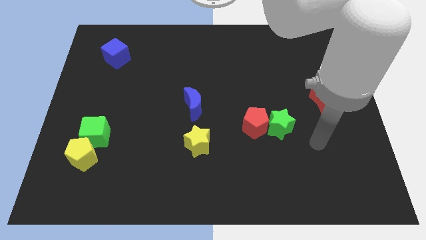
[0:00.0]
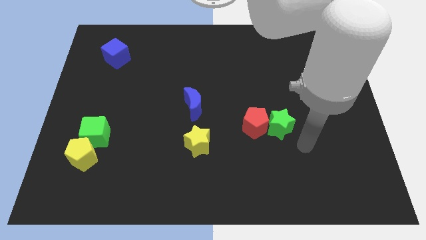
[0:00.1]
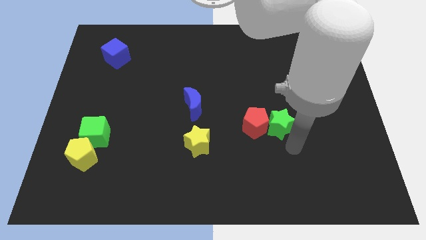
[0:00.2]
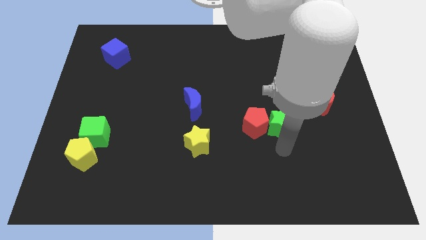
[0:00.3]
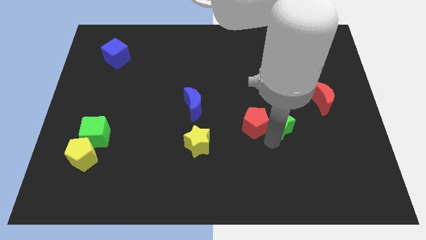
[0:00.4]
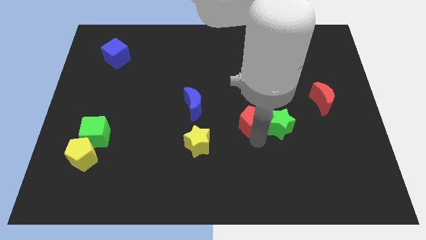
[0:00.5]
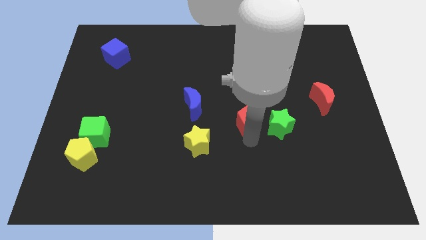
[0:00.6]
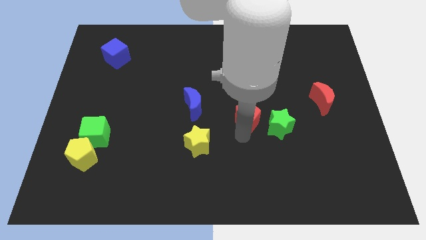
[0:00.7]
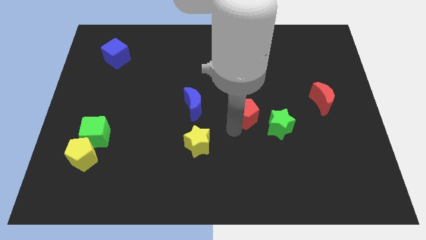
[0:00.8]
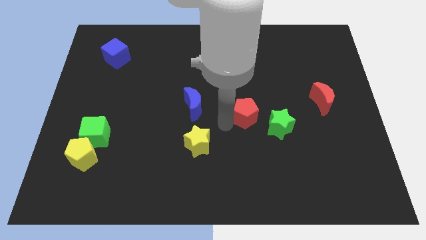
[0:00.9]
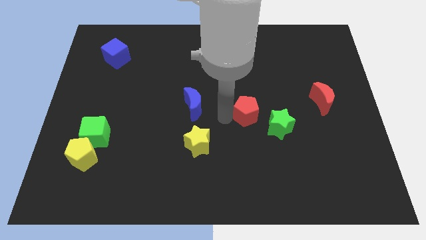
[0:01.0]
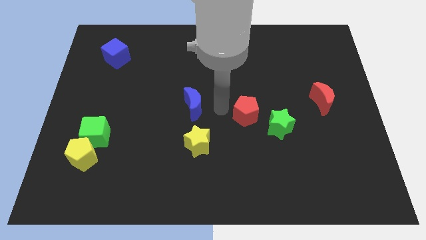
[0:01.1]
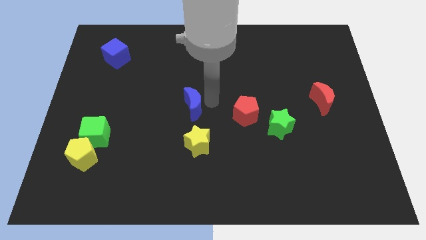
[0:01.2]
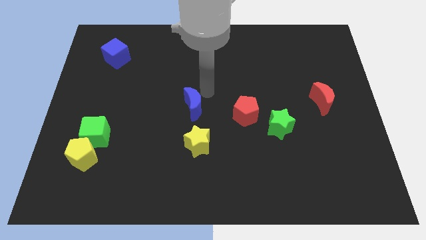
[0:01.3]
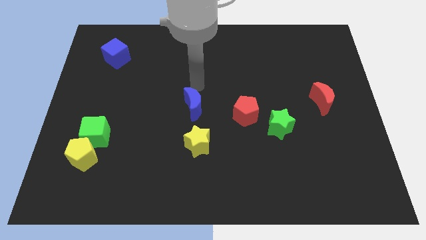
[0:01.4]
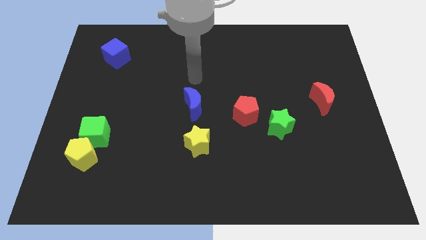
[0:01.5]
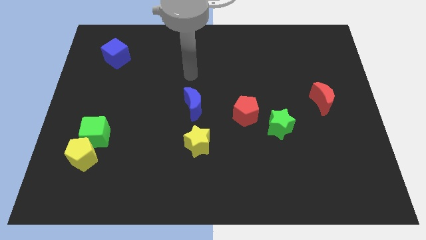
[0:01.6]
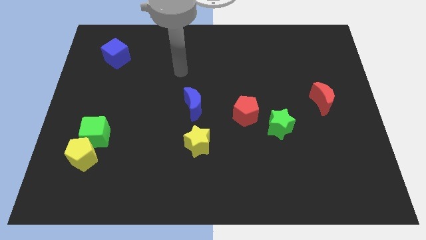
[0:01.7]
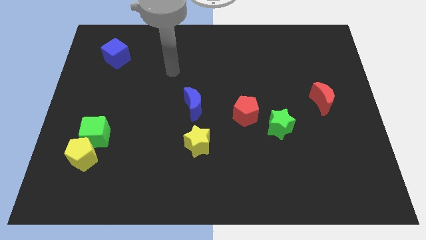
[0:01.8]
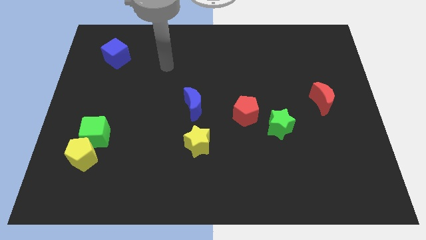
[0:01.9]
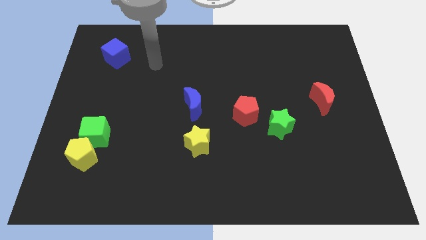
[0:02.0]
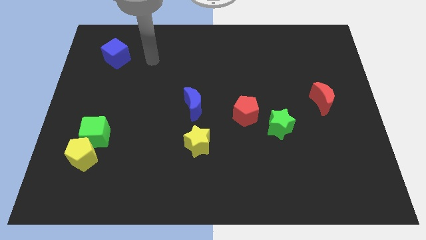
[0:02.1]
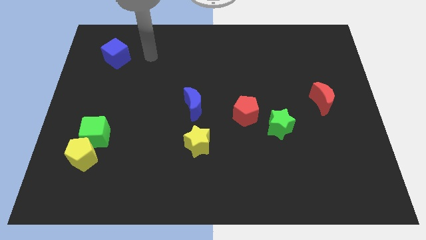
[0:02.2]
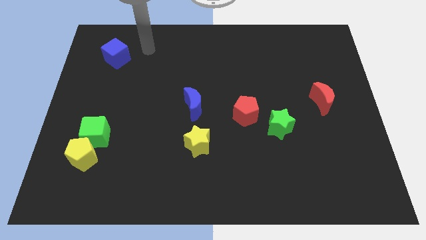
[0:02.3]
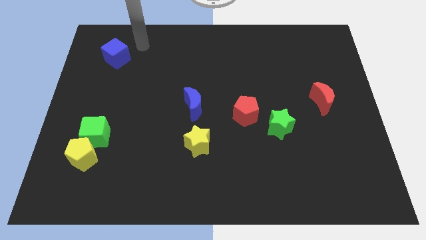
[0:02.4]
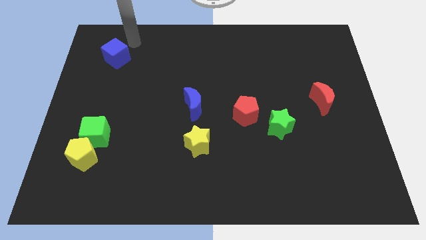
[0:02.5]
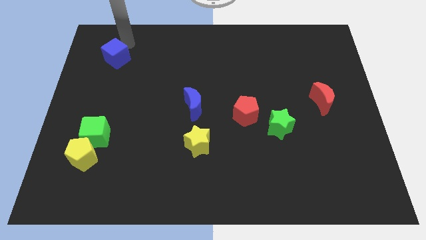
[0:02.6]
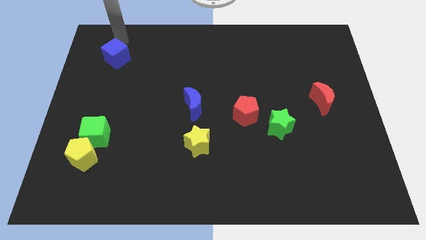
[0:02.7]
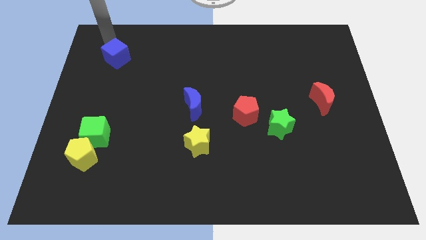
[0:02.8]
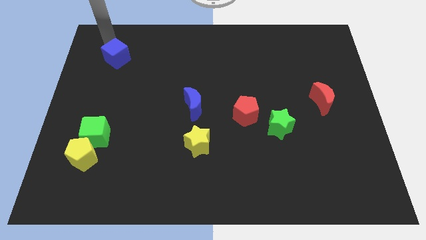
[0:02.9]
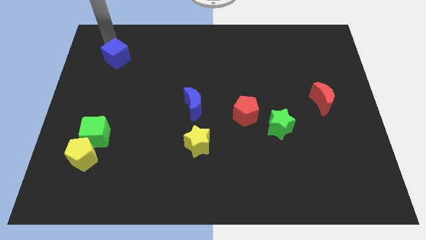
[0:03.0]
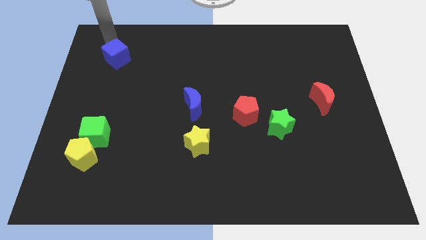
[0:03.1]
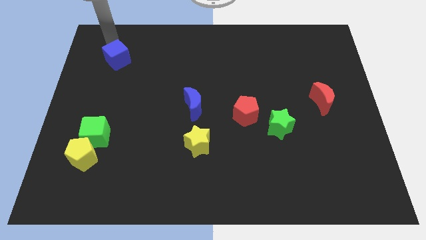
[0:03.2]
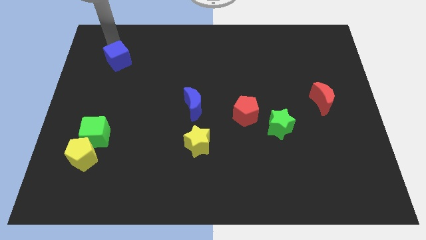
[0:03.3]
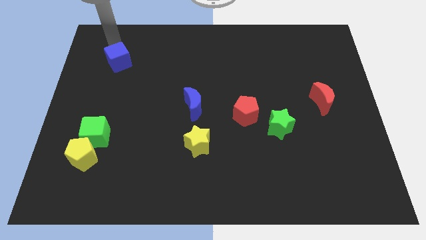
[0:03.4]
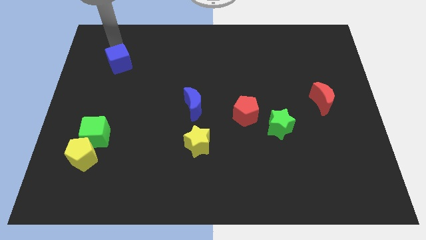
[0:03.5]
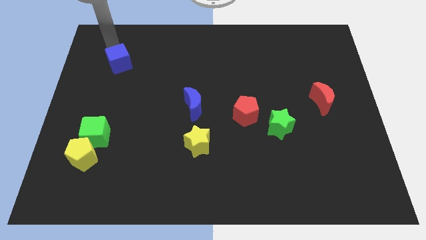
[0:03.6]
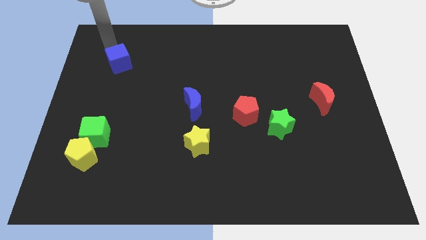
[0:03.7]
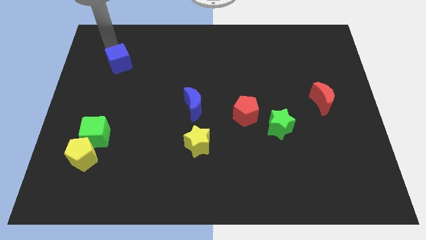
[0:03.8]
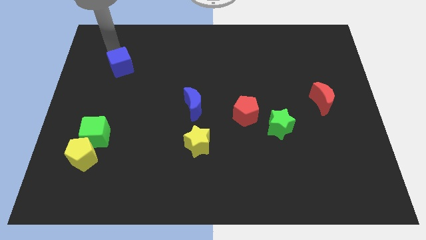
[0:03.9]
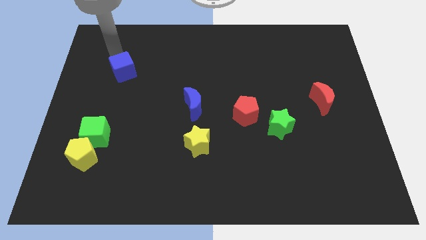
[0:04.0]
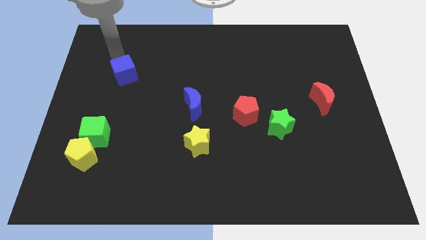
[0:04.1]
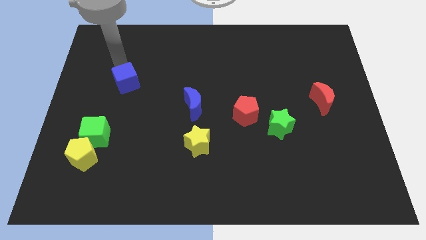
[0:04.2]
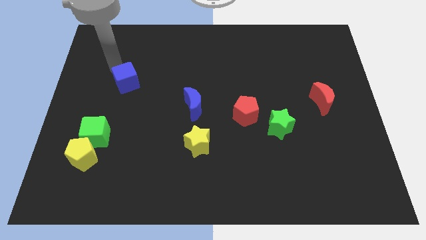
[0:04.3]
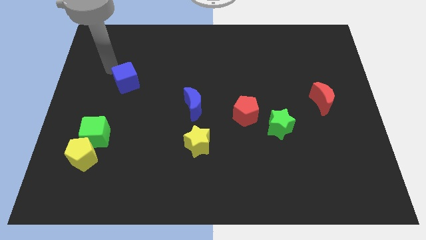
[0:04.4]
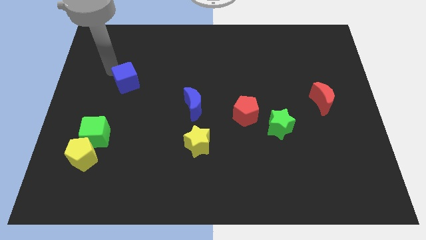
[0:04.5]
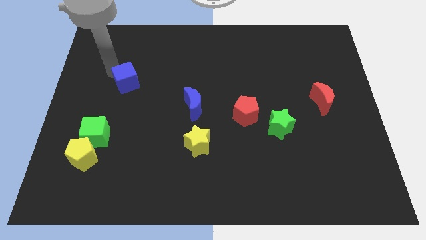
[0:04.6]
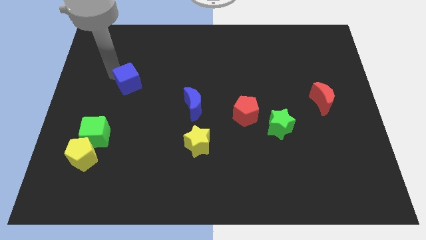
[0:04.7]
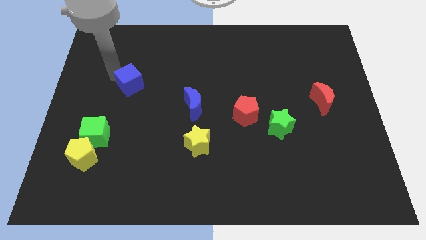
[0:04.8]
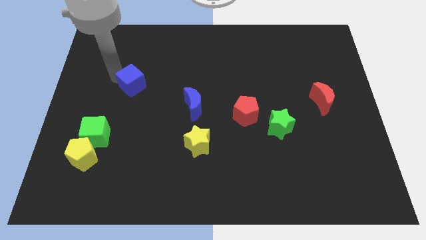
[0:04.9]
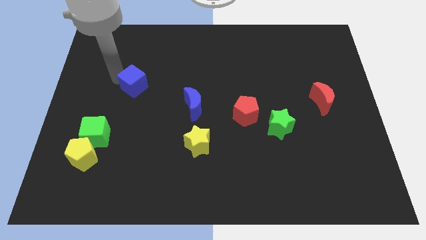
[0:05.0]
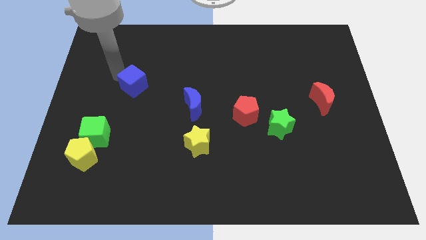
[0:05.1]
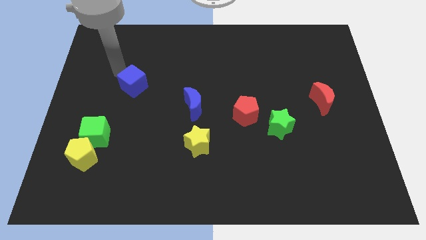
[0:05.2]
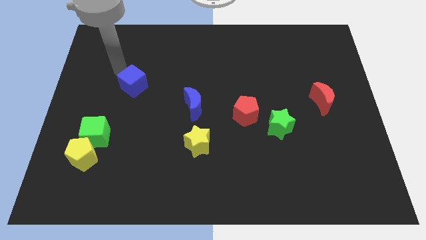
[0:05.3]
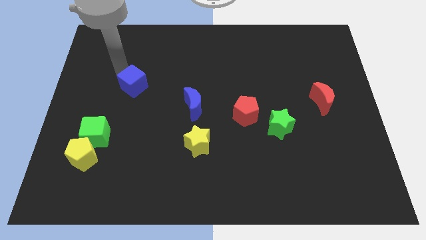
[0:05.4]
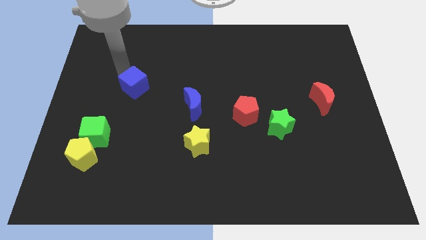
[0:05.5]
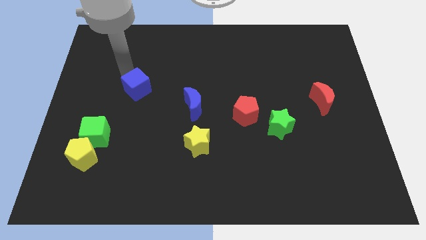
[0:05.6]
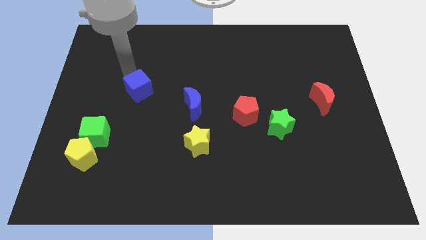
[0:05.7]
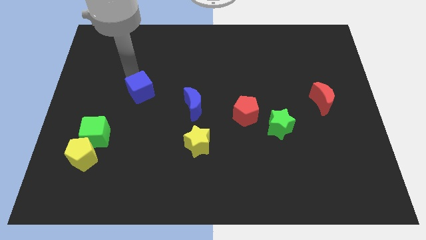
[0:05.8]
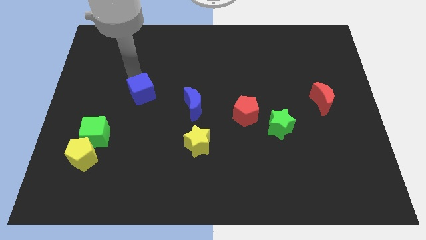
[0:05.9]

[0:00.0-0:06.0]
slide the blue cube to the left side of the blue moon

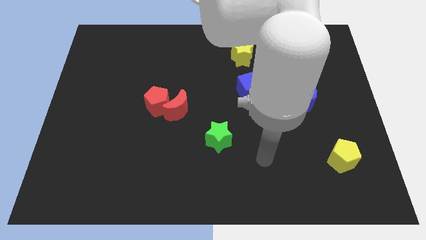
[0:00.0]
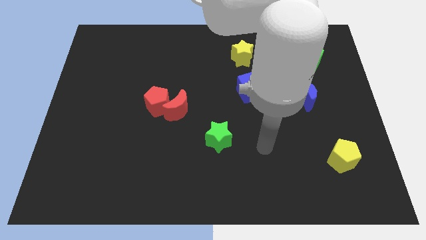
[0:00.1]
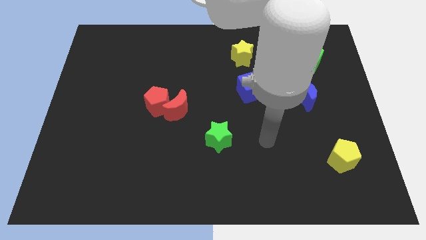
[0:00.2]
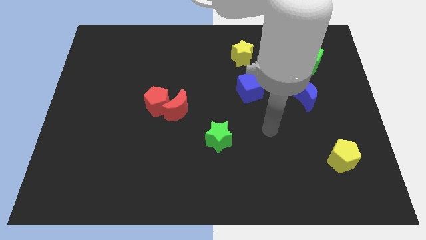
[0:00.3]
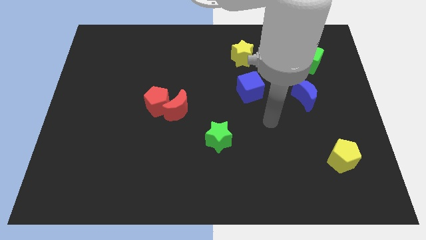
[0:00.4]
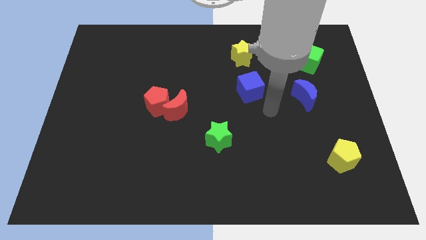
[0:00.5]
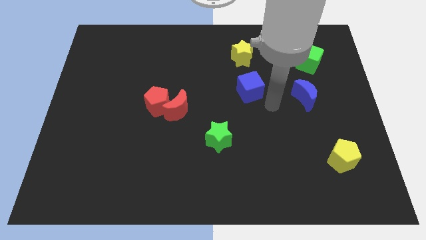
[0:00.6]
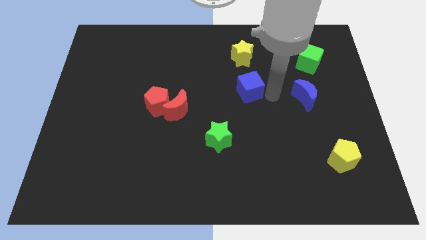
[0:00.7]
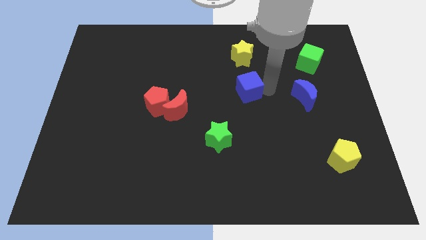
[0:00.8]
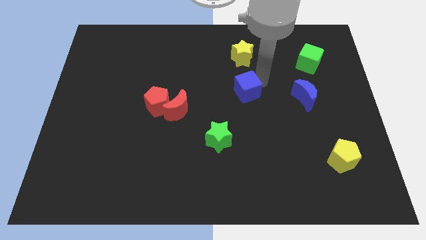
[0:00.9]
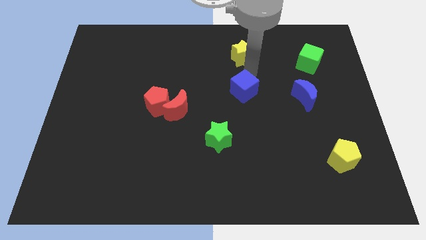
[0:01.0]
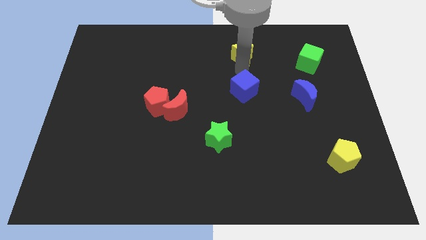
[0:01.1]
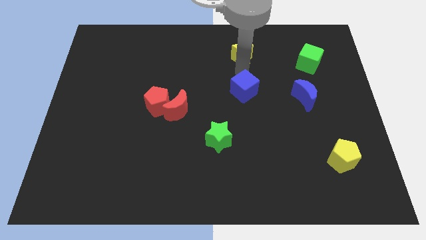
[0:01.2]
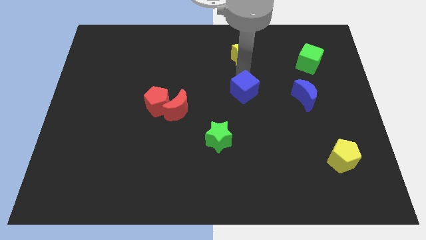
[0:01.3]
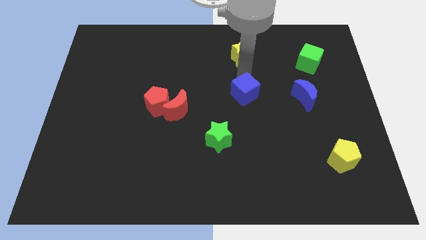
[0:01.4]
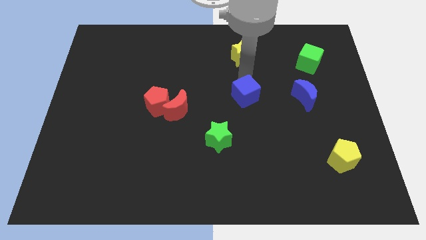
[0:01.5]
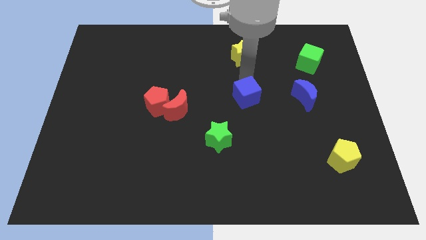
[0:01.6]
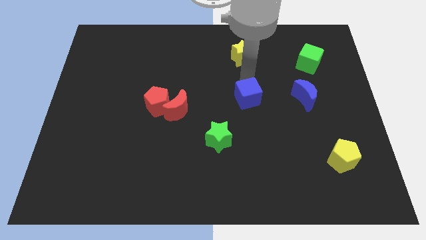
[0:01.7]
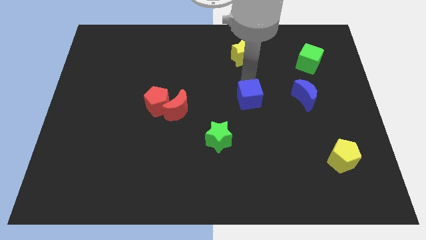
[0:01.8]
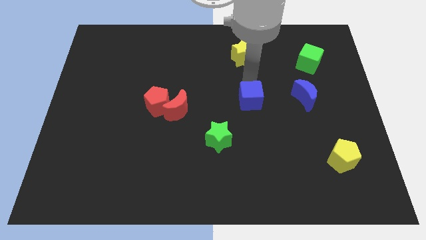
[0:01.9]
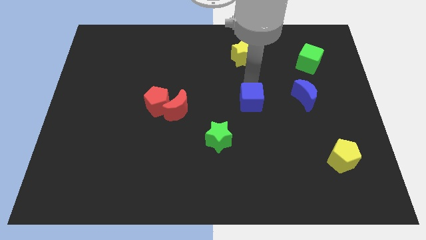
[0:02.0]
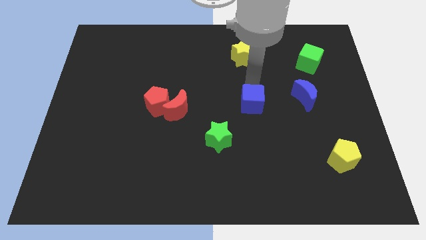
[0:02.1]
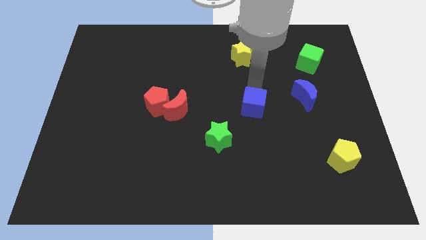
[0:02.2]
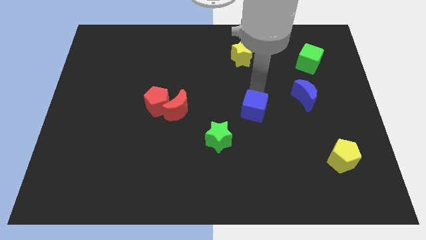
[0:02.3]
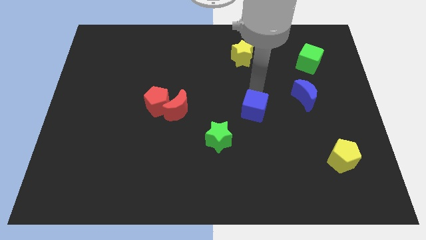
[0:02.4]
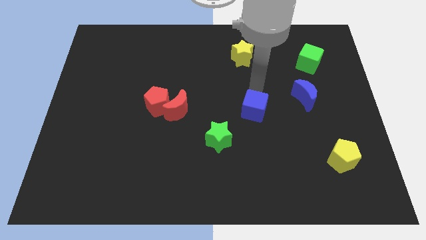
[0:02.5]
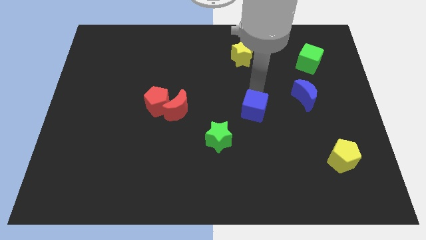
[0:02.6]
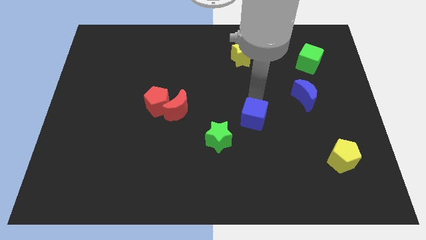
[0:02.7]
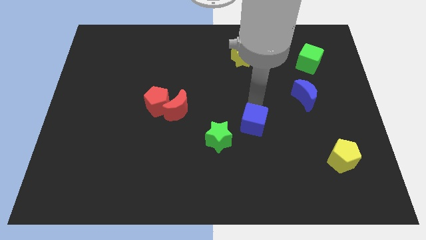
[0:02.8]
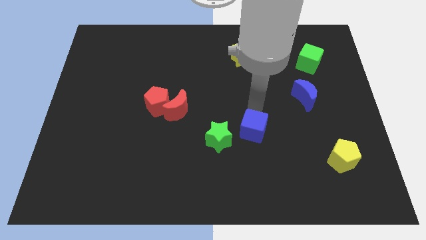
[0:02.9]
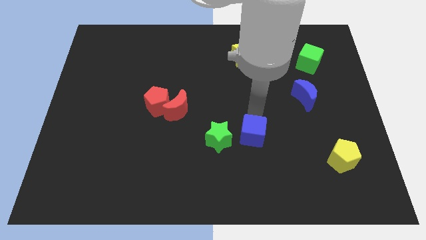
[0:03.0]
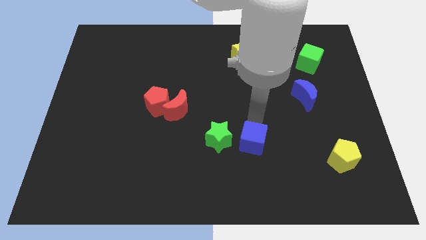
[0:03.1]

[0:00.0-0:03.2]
move the blue cube to the bottom right side of the green star
